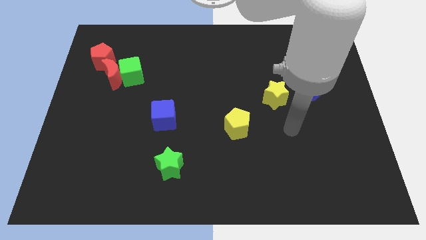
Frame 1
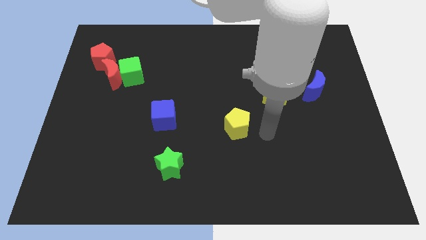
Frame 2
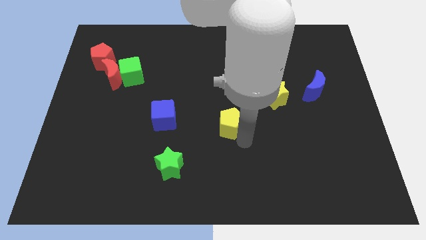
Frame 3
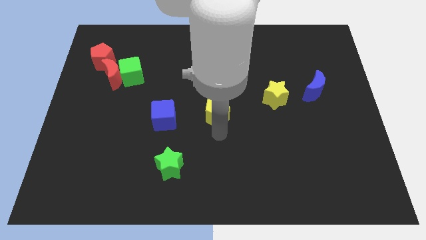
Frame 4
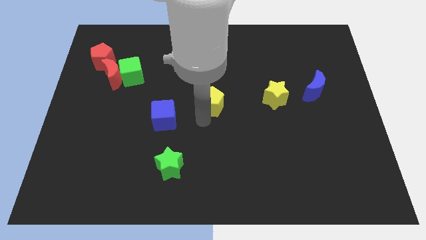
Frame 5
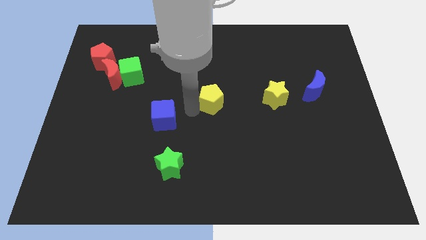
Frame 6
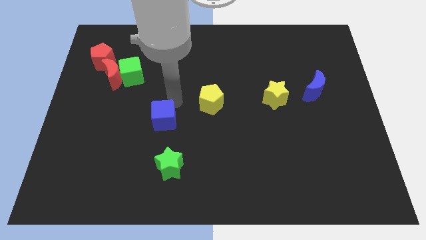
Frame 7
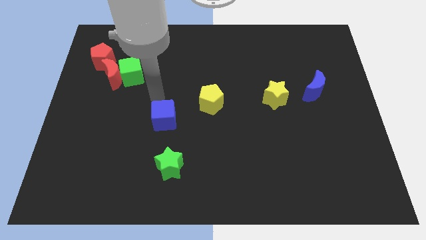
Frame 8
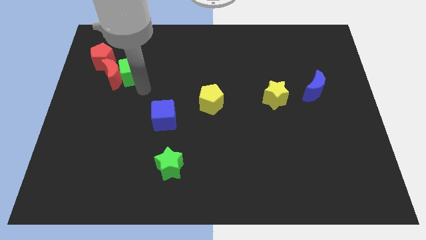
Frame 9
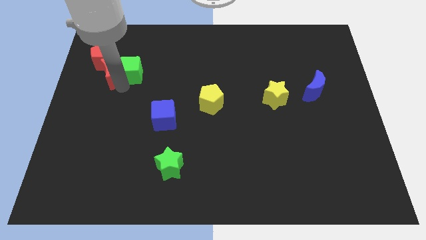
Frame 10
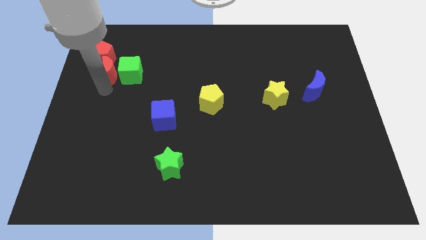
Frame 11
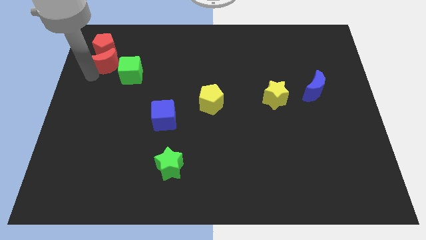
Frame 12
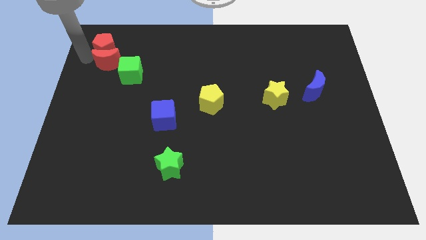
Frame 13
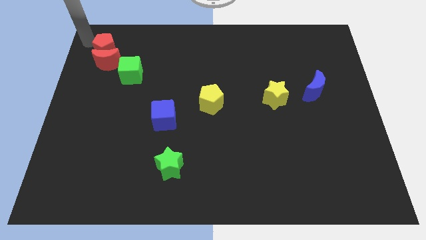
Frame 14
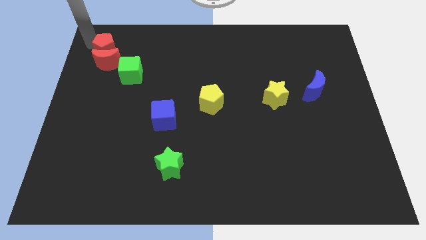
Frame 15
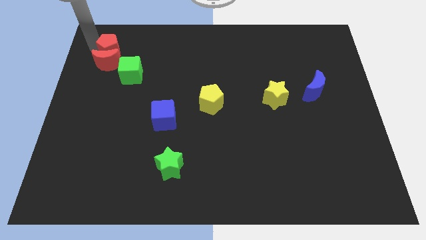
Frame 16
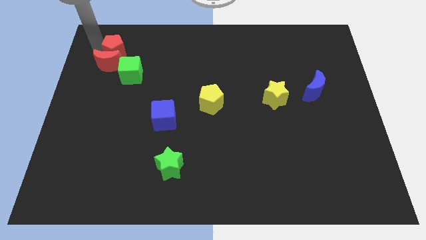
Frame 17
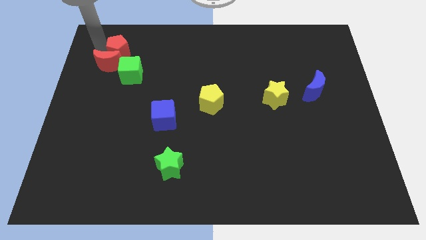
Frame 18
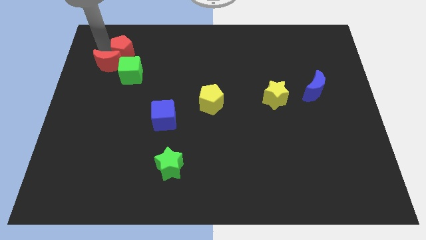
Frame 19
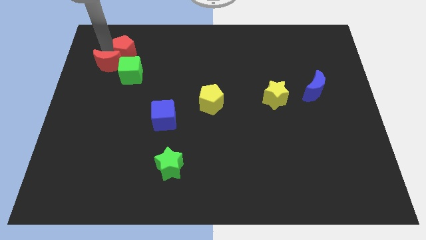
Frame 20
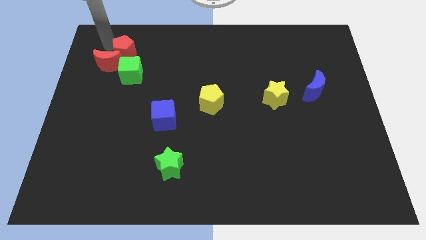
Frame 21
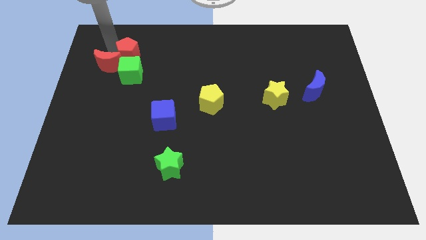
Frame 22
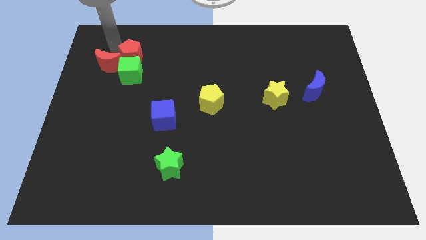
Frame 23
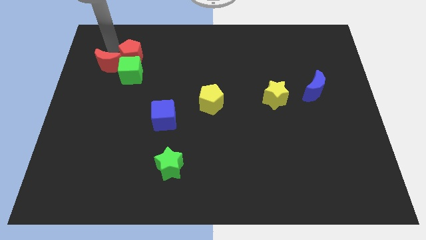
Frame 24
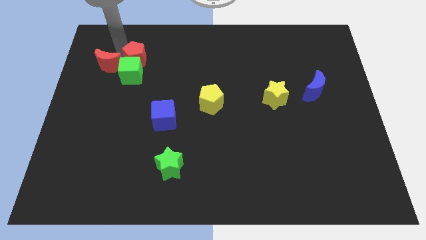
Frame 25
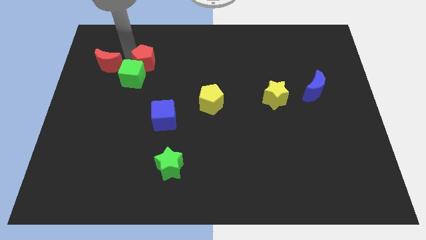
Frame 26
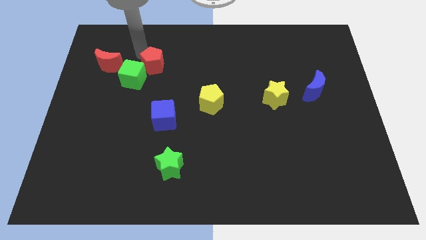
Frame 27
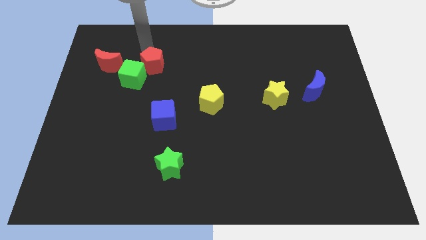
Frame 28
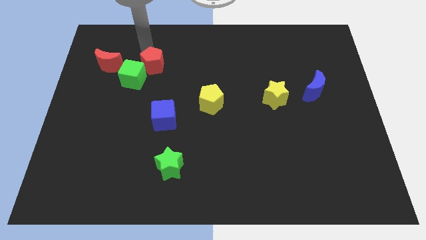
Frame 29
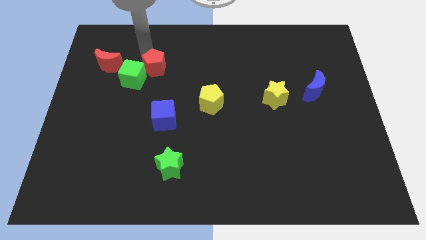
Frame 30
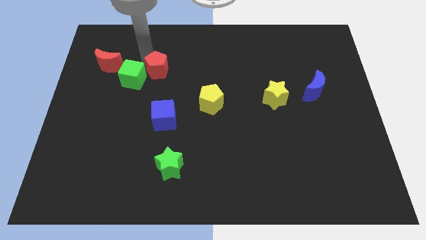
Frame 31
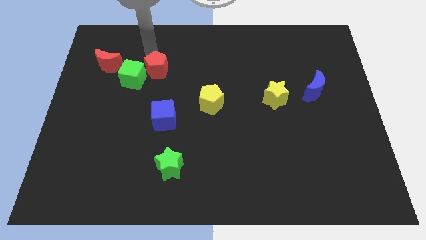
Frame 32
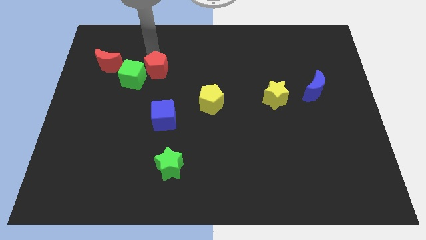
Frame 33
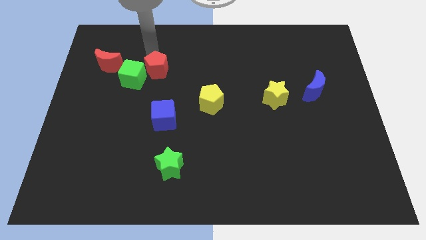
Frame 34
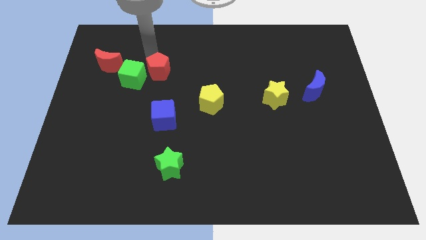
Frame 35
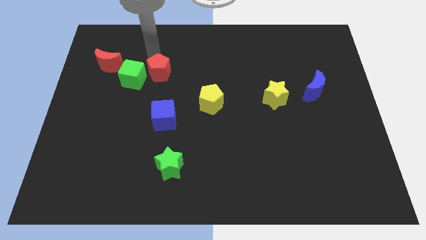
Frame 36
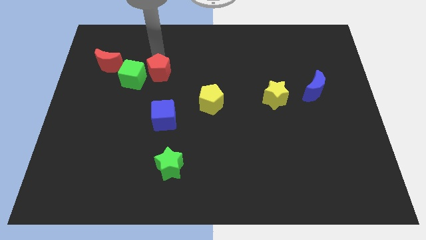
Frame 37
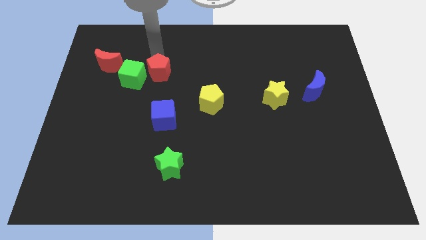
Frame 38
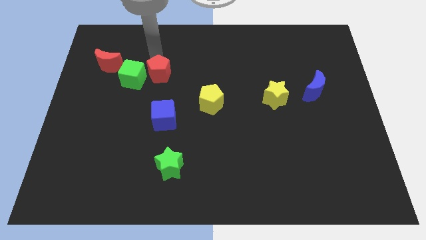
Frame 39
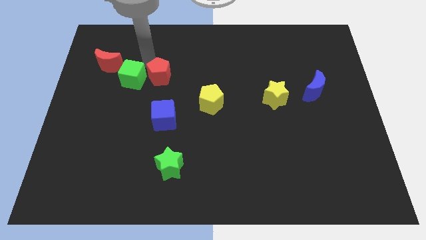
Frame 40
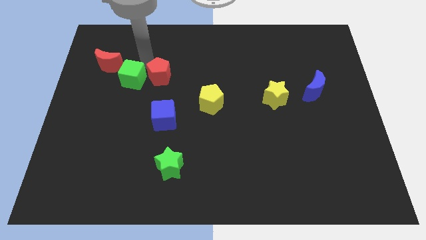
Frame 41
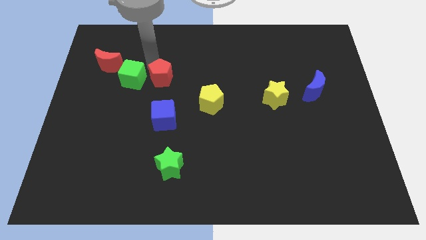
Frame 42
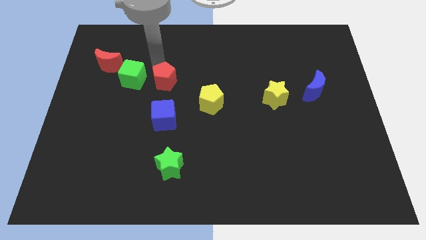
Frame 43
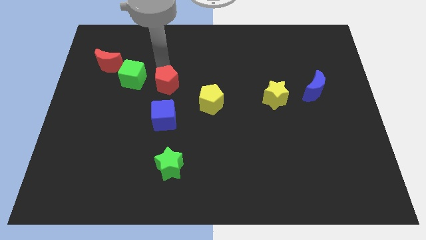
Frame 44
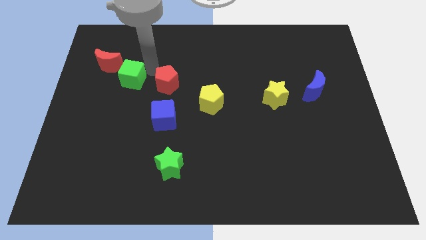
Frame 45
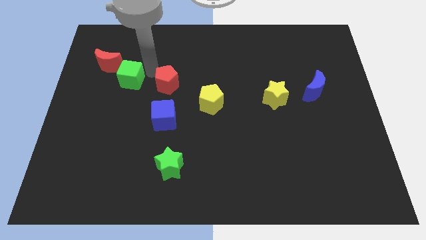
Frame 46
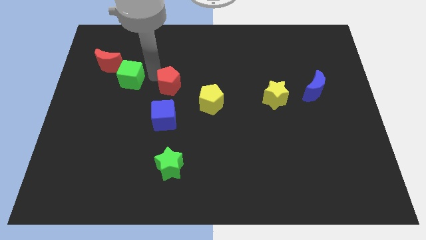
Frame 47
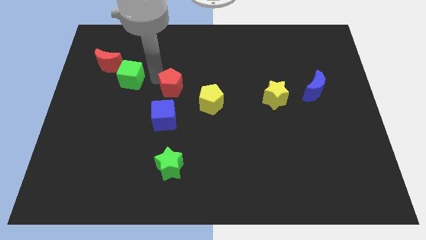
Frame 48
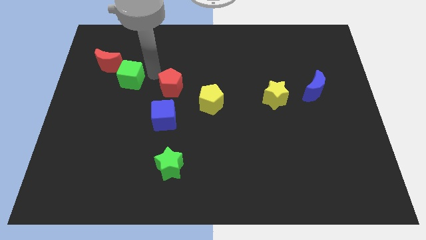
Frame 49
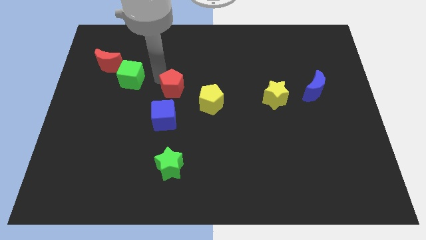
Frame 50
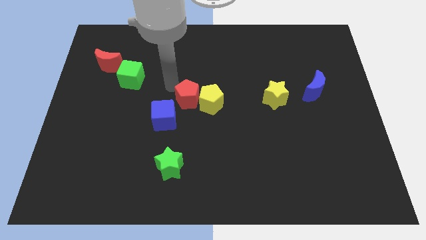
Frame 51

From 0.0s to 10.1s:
put the red pentagon towards the yellow pentagon

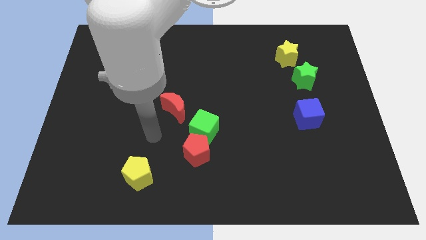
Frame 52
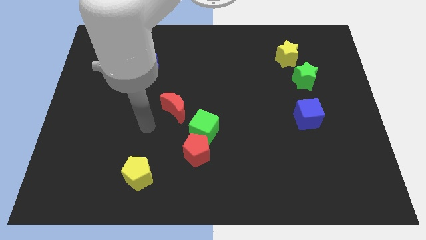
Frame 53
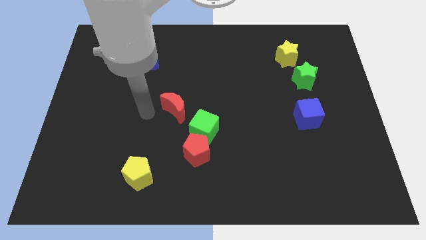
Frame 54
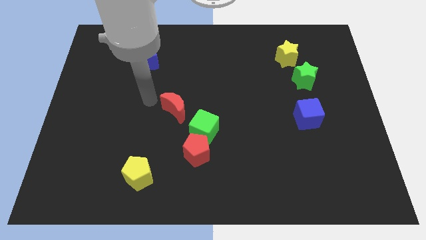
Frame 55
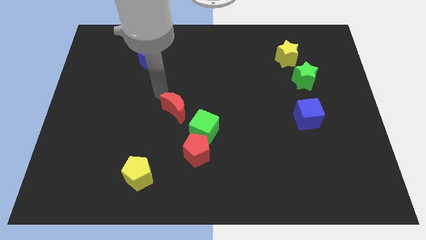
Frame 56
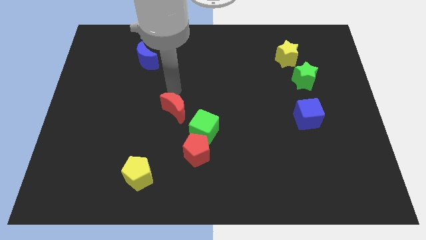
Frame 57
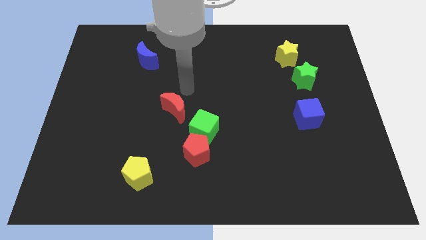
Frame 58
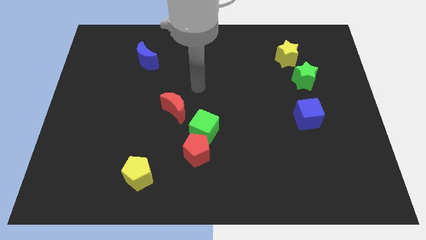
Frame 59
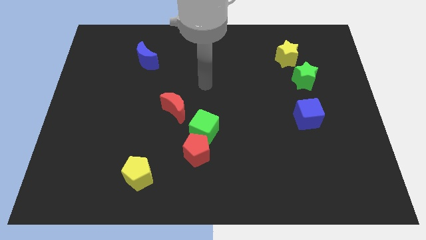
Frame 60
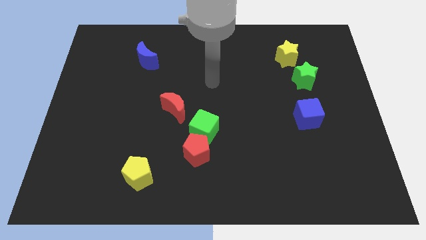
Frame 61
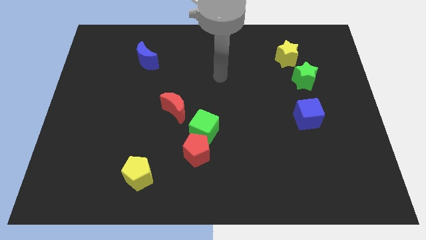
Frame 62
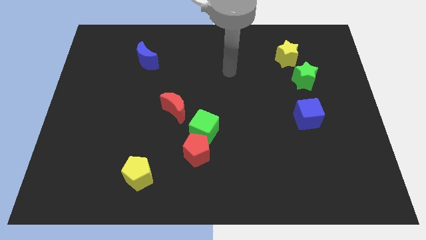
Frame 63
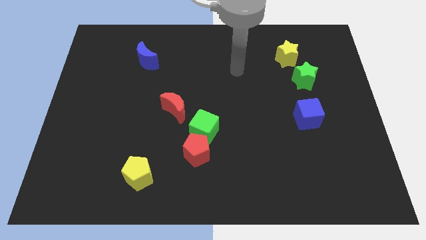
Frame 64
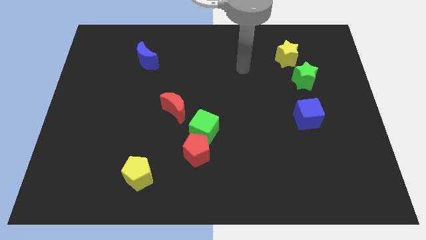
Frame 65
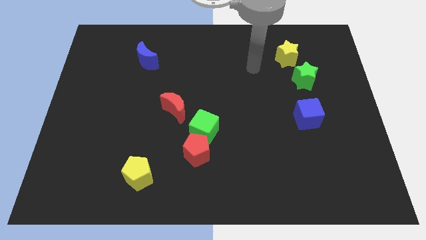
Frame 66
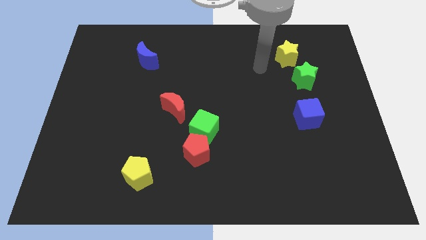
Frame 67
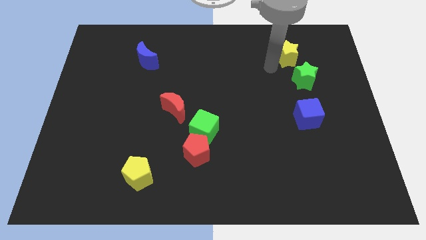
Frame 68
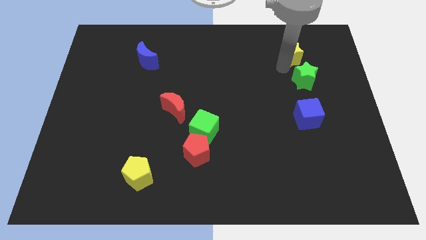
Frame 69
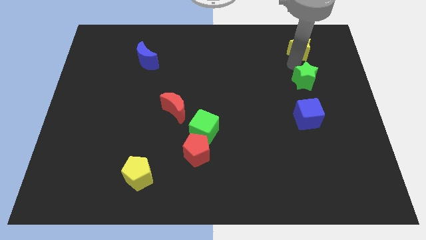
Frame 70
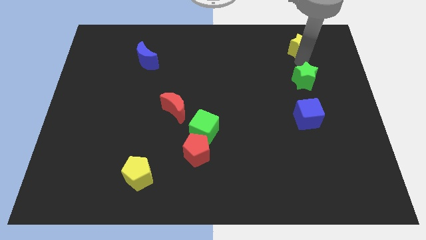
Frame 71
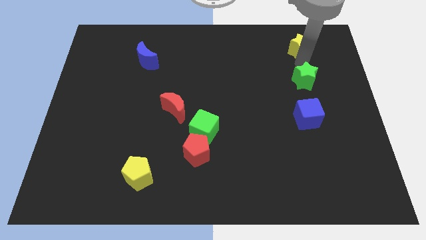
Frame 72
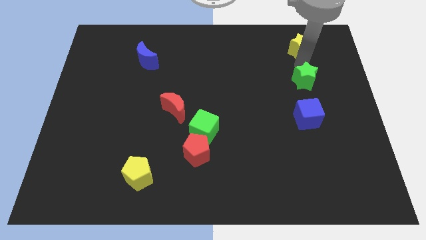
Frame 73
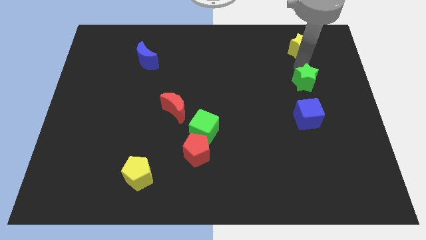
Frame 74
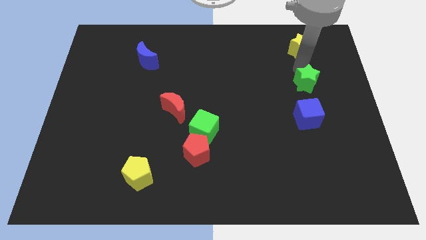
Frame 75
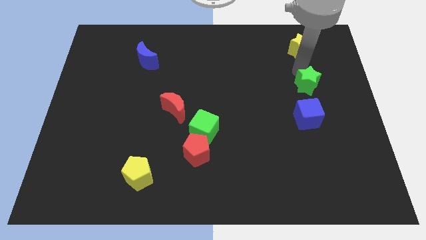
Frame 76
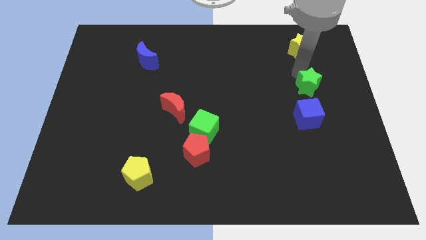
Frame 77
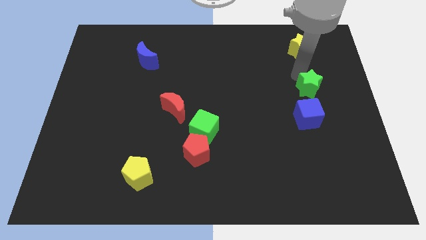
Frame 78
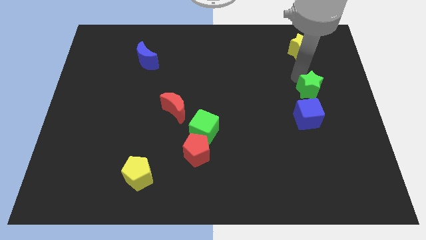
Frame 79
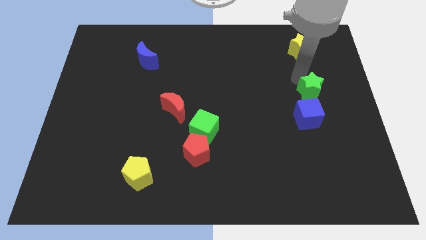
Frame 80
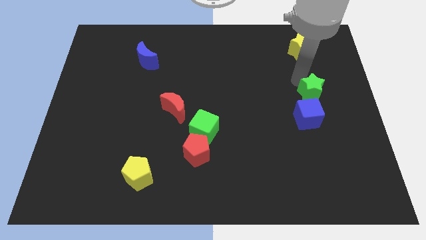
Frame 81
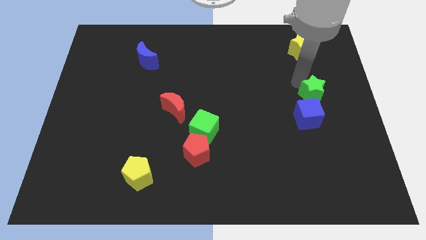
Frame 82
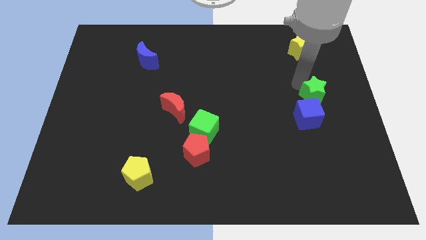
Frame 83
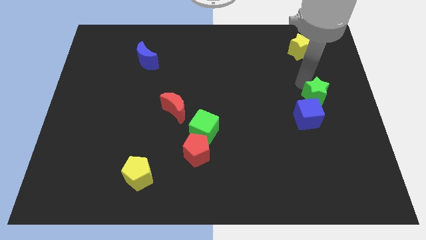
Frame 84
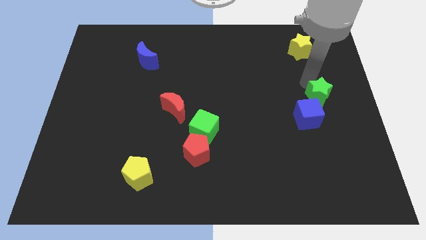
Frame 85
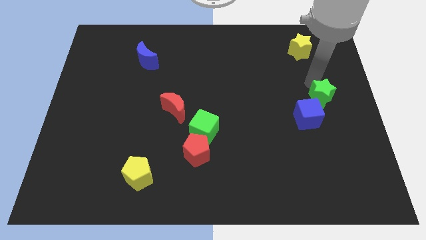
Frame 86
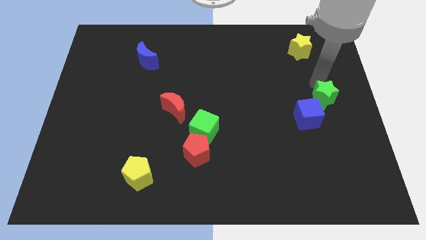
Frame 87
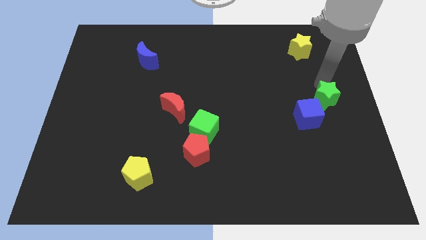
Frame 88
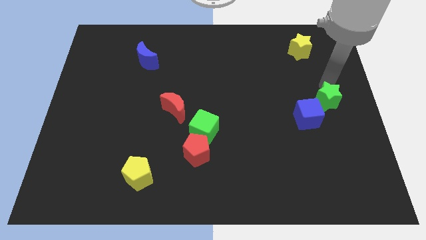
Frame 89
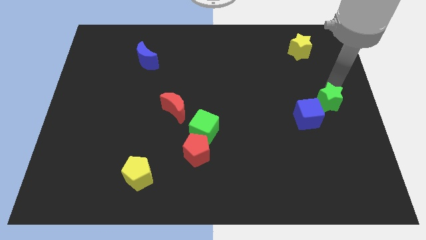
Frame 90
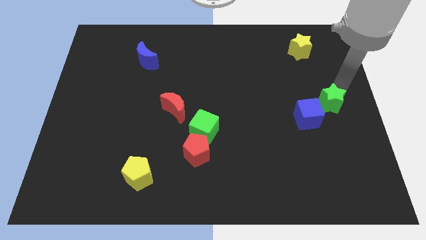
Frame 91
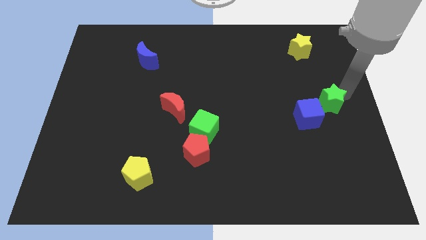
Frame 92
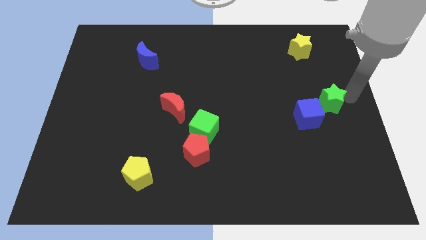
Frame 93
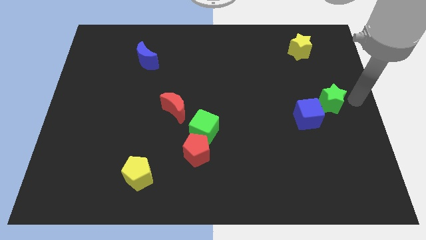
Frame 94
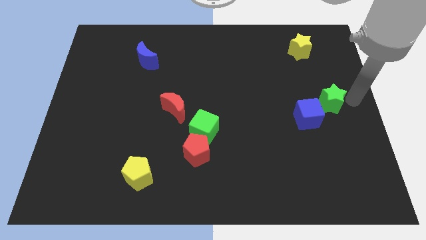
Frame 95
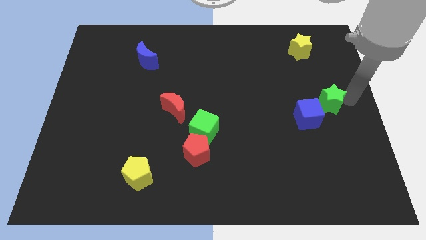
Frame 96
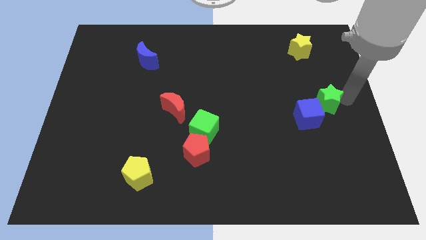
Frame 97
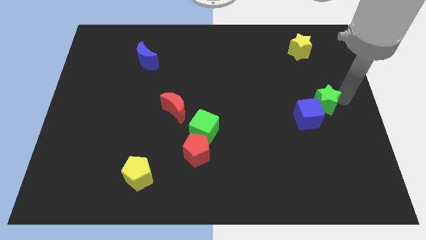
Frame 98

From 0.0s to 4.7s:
move the green star close to the blue cube
